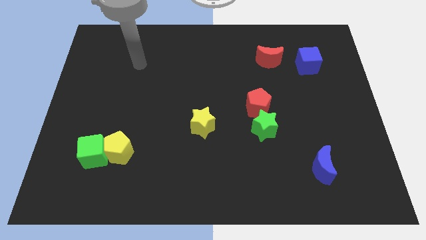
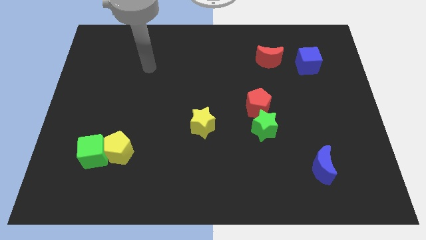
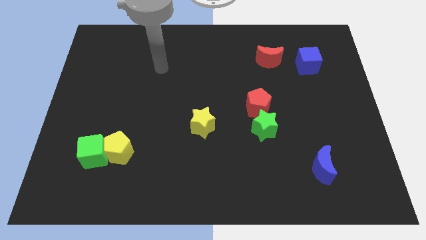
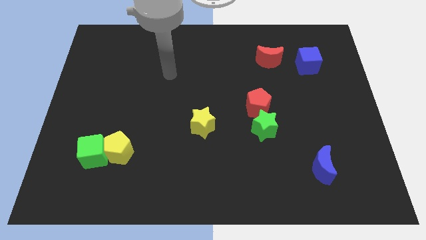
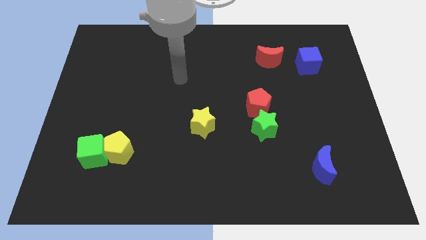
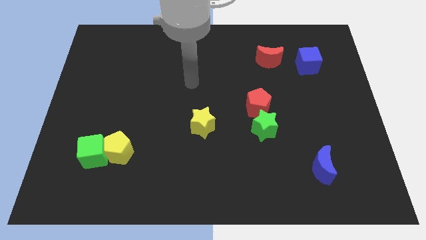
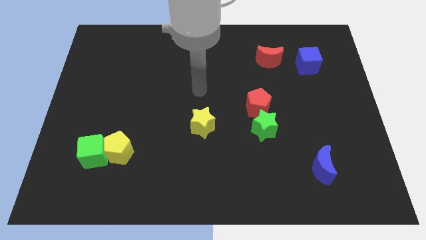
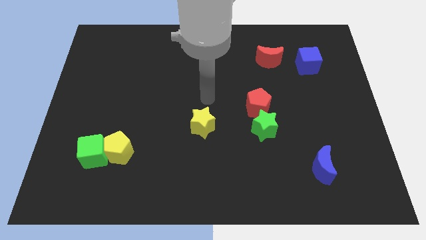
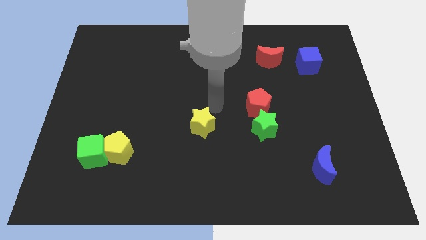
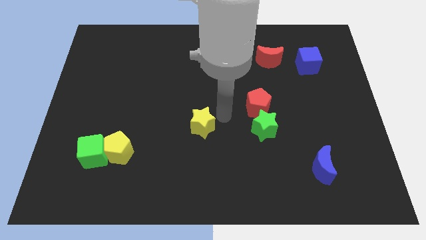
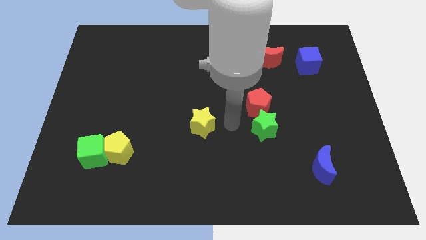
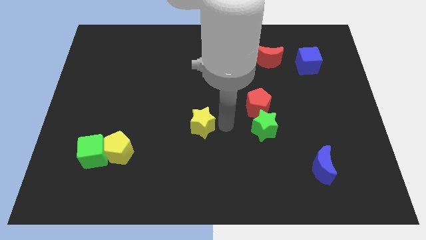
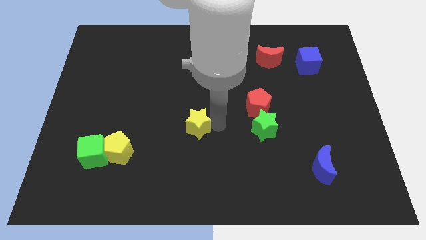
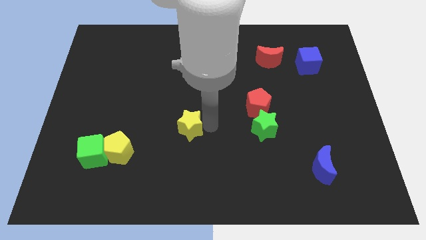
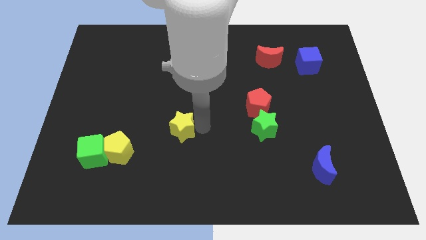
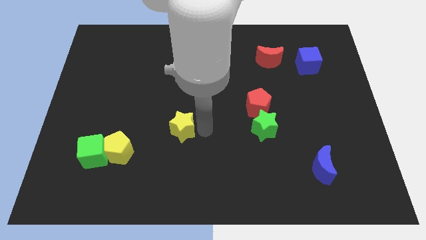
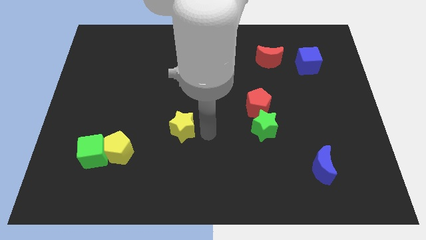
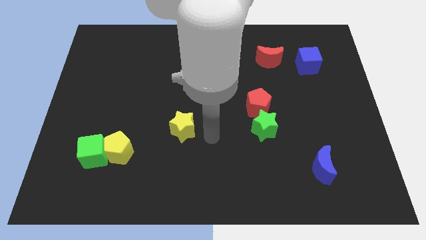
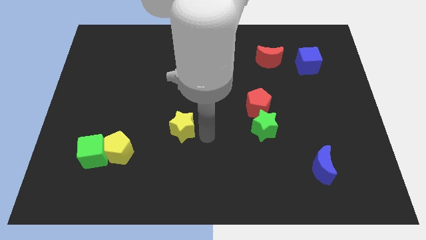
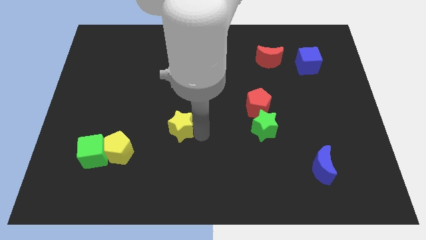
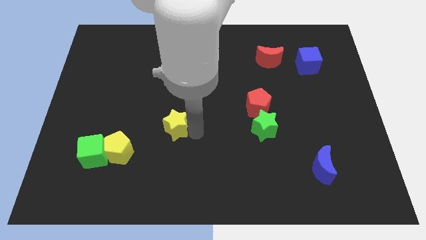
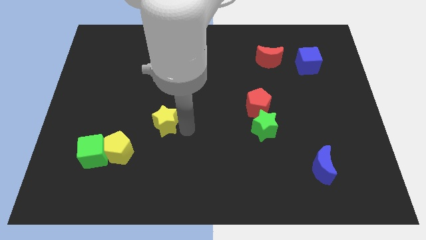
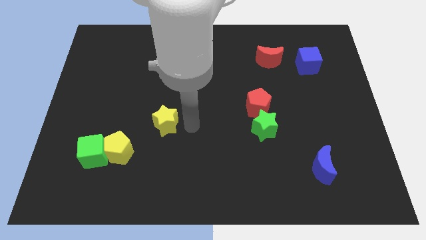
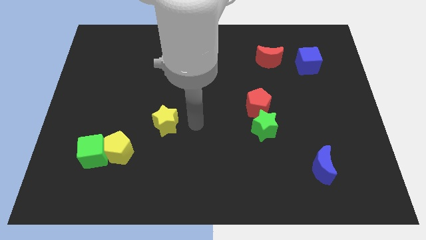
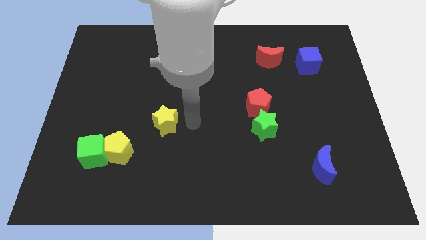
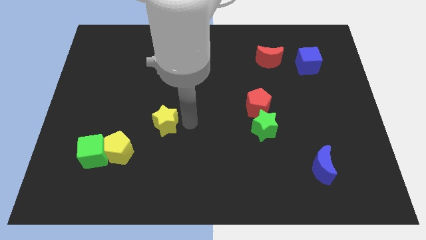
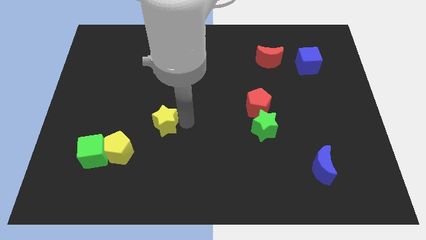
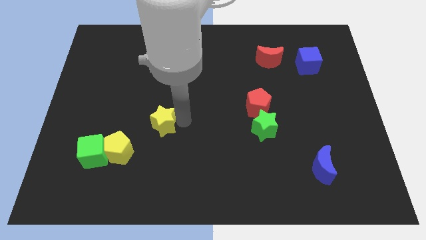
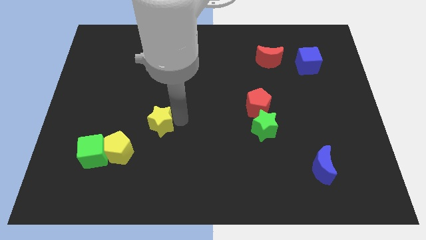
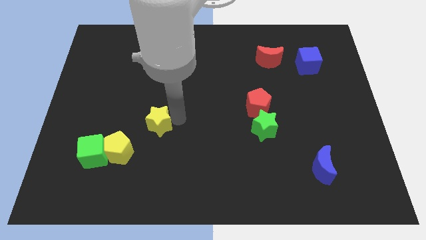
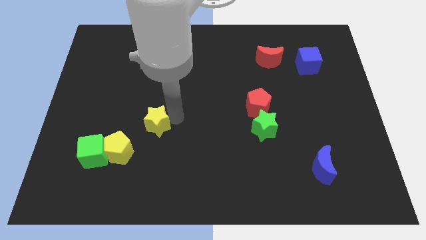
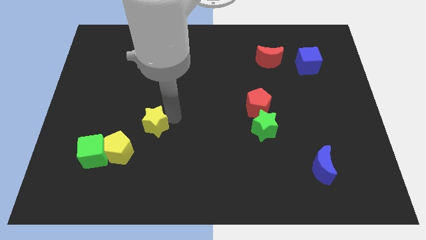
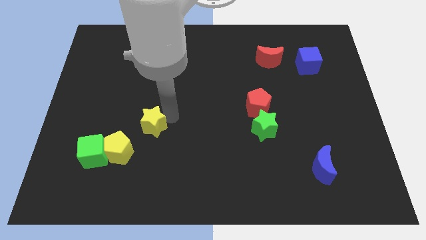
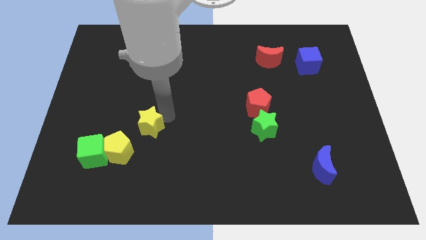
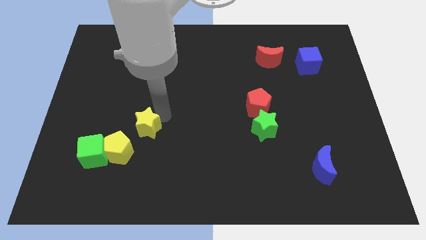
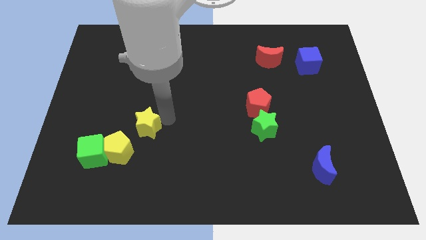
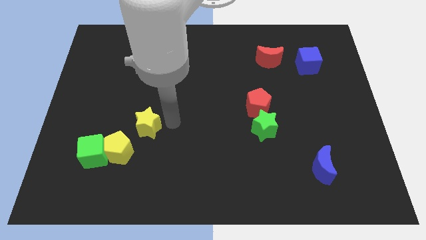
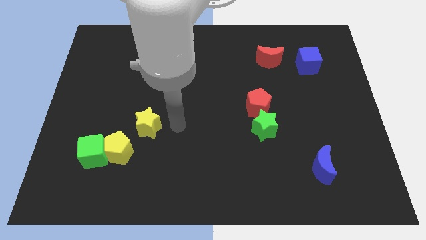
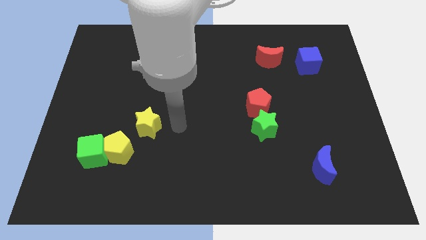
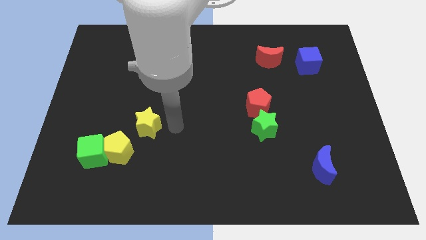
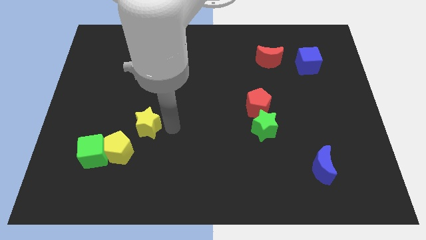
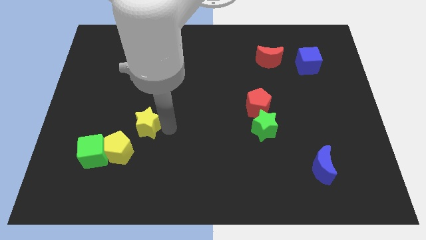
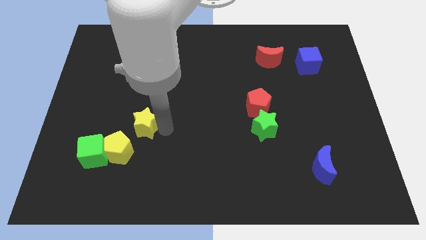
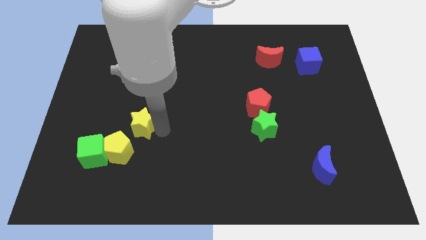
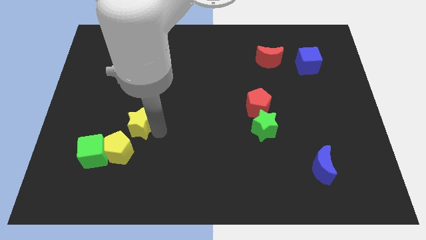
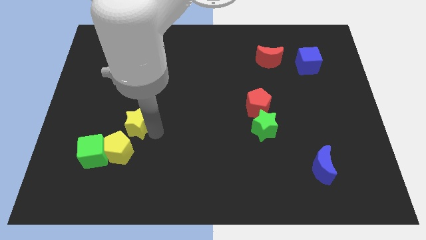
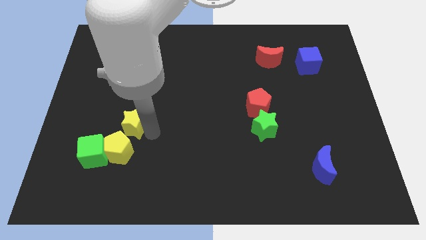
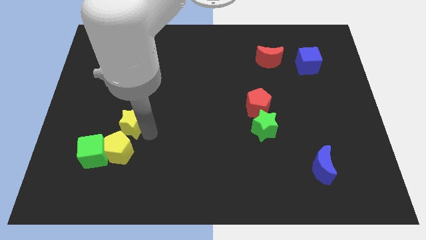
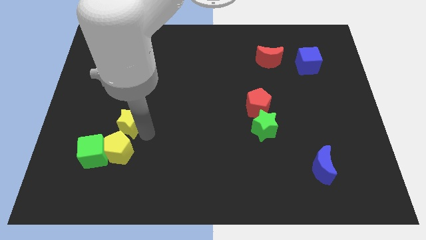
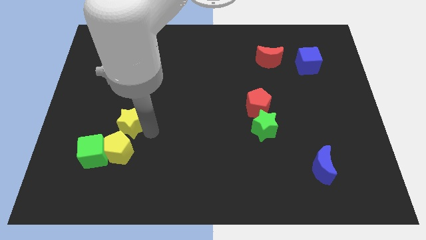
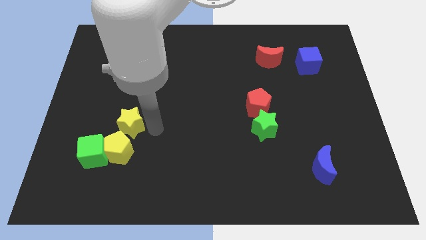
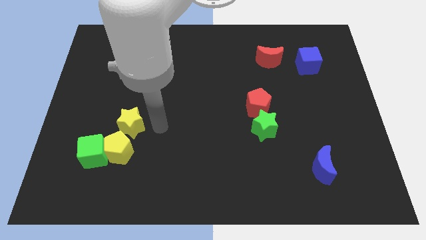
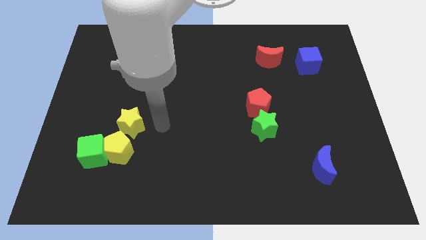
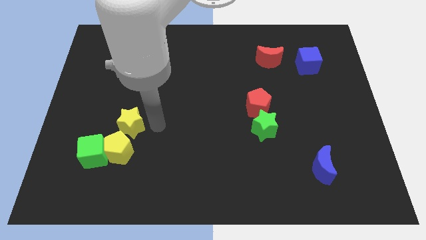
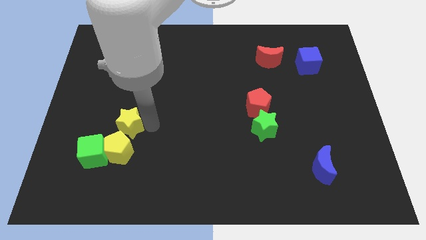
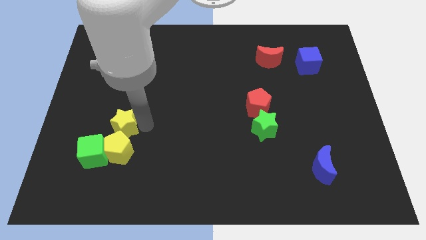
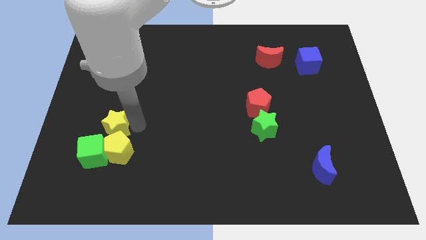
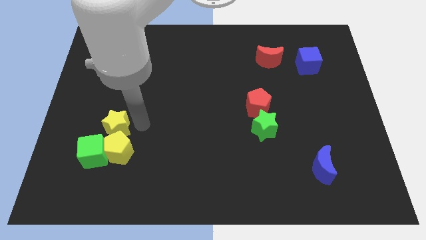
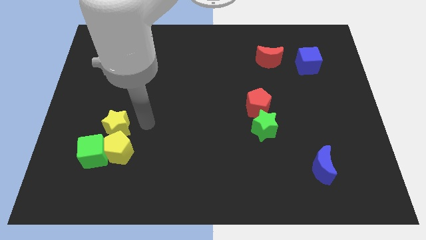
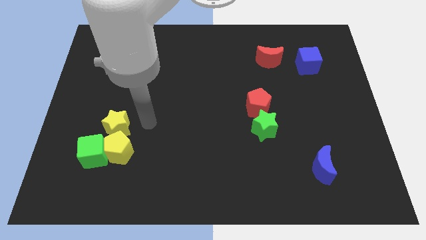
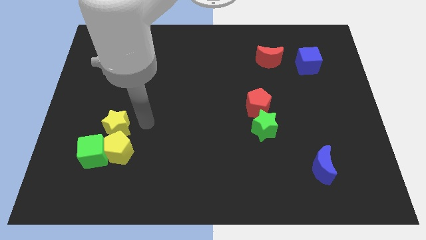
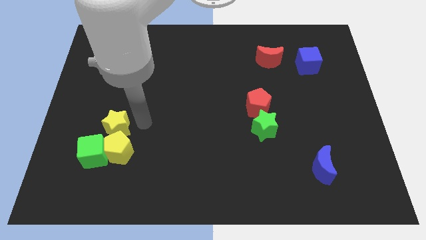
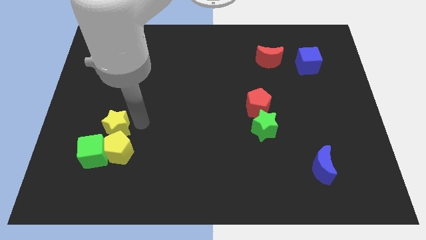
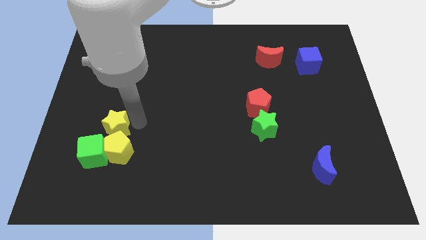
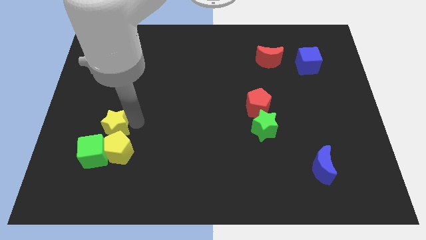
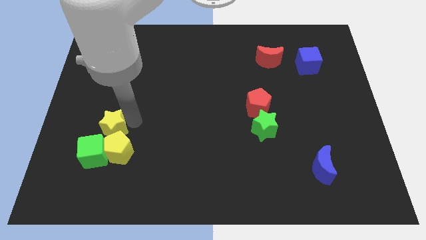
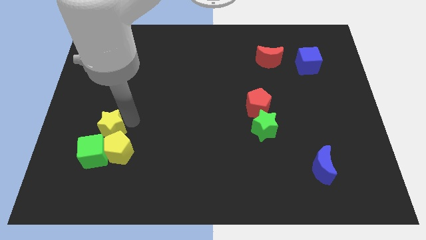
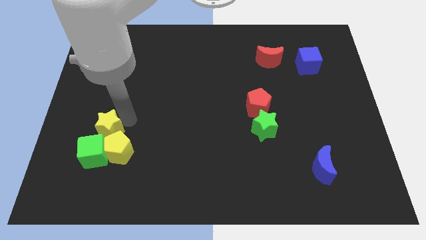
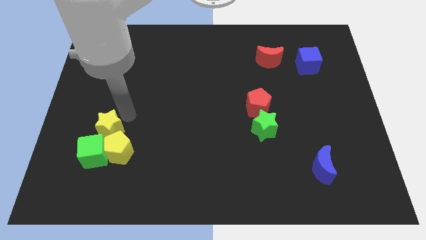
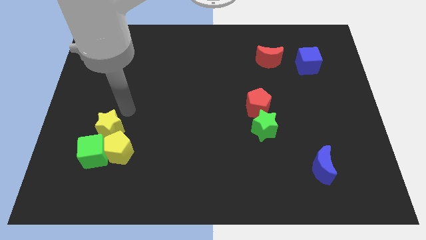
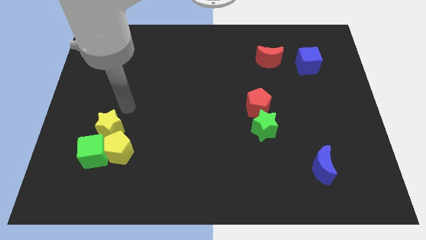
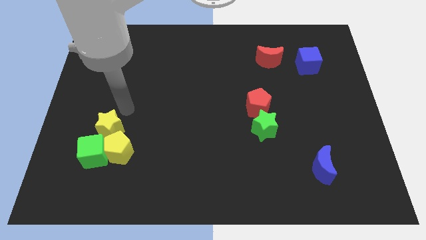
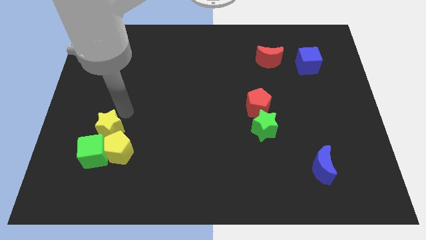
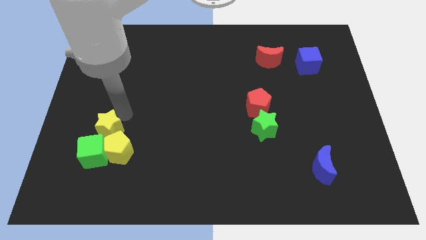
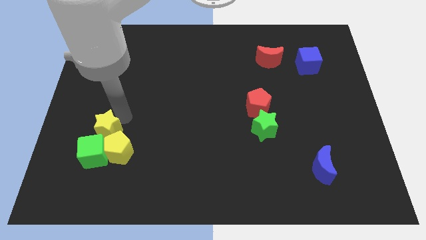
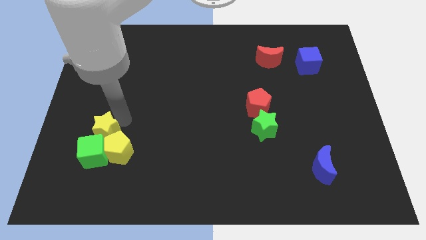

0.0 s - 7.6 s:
slide the yellow star close to the green cube
